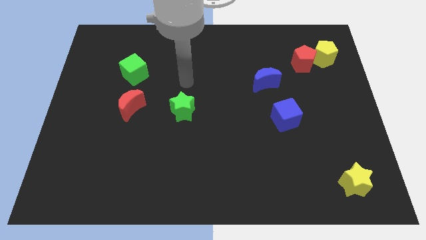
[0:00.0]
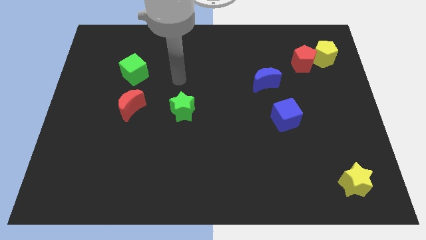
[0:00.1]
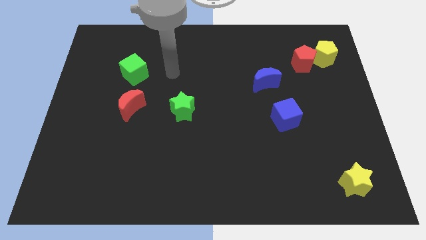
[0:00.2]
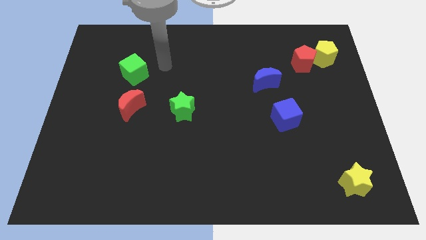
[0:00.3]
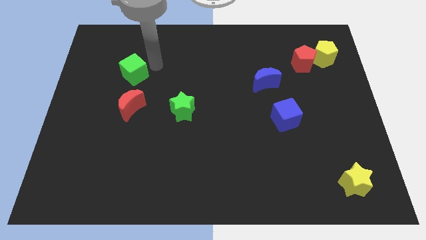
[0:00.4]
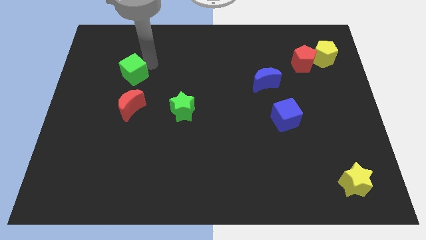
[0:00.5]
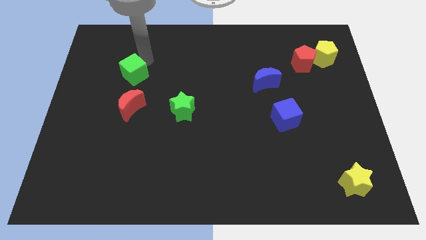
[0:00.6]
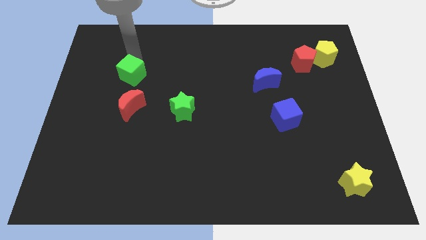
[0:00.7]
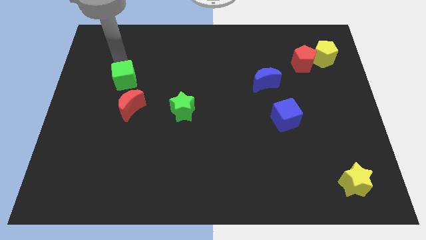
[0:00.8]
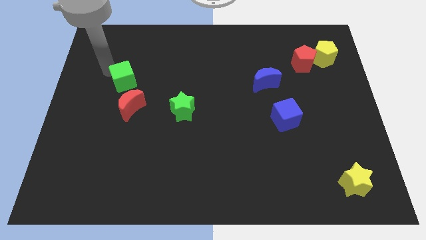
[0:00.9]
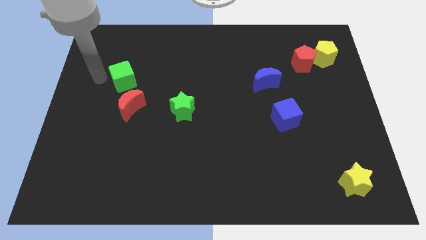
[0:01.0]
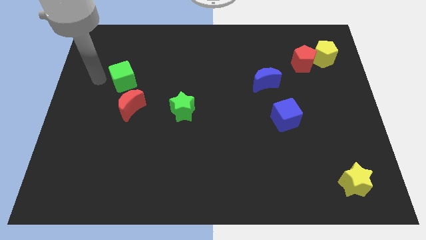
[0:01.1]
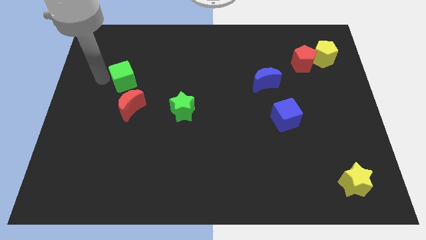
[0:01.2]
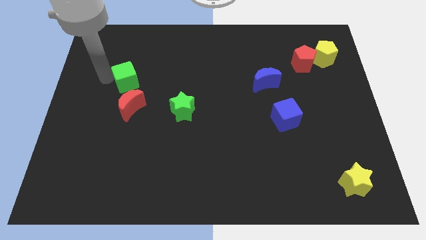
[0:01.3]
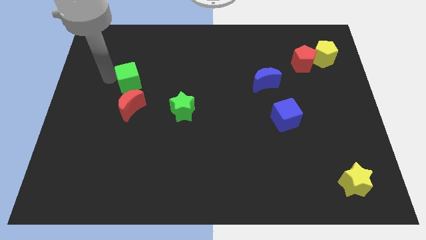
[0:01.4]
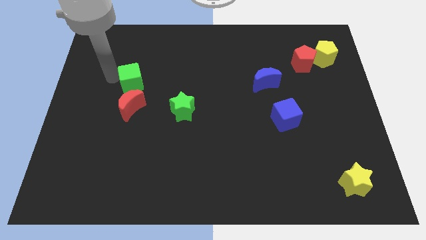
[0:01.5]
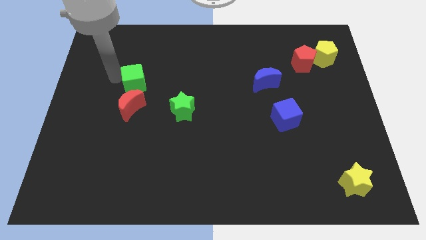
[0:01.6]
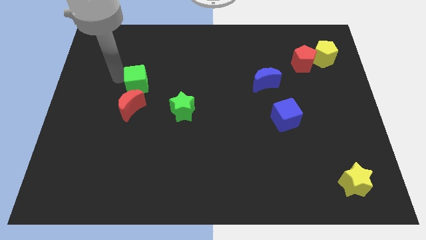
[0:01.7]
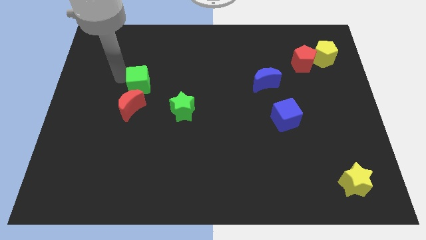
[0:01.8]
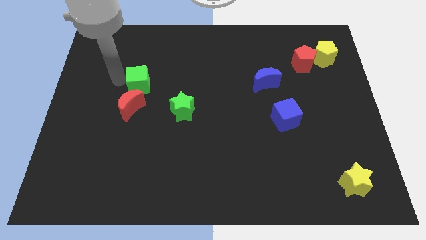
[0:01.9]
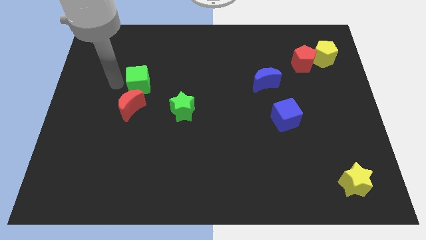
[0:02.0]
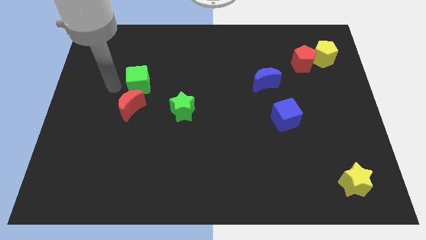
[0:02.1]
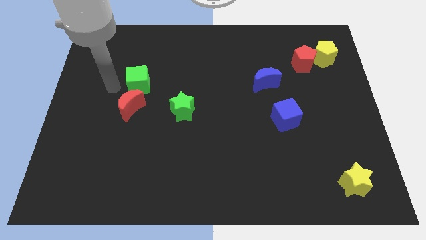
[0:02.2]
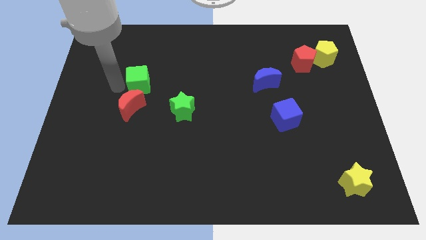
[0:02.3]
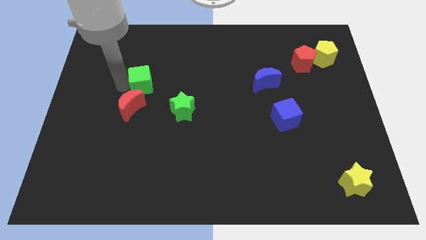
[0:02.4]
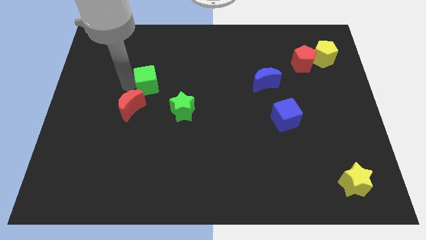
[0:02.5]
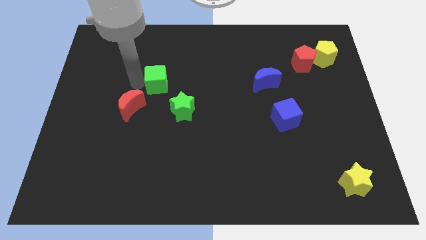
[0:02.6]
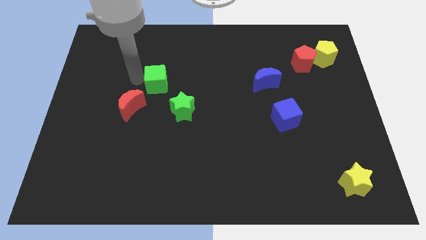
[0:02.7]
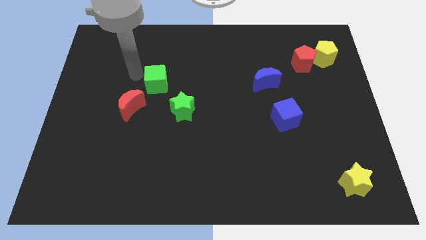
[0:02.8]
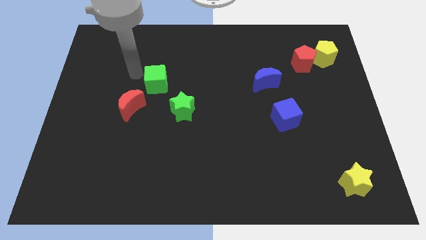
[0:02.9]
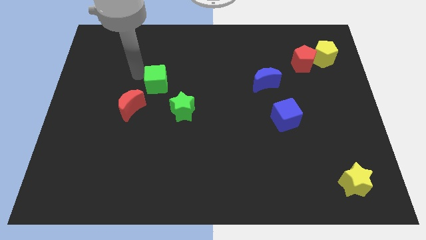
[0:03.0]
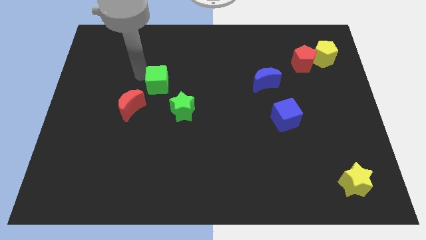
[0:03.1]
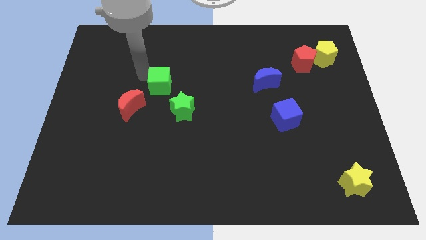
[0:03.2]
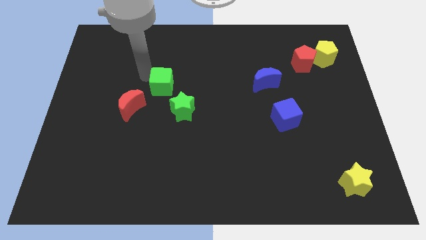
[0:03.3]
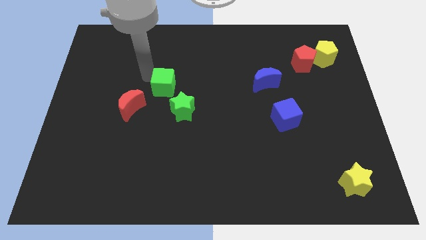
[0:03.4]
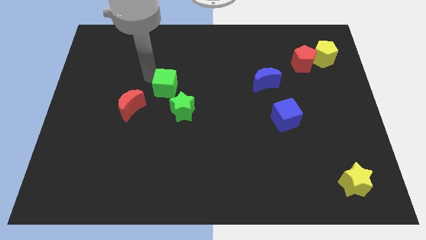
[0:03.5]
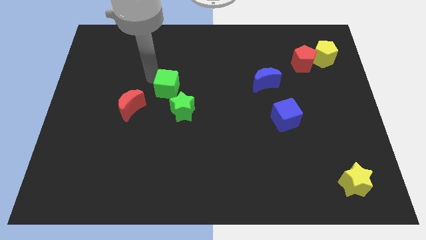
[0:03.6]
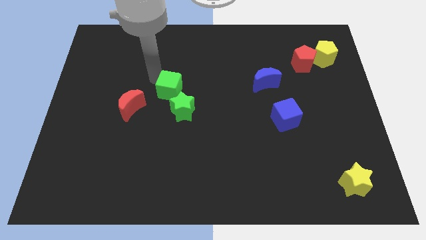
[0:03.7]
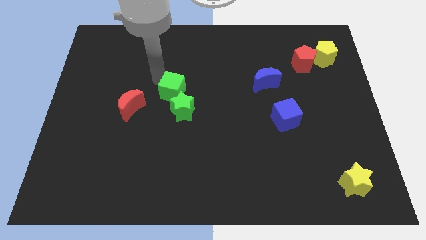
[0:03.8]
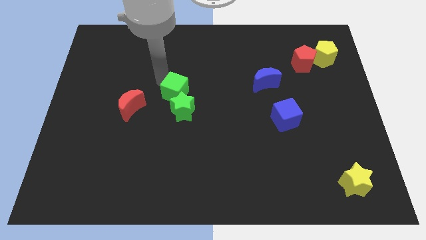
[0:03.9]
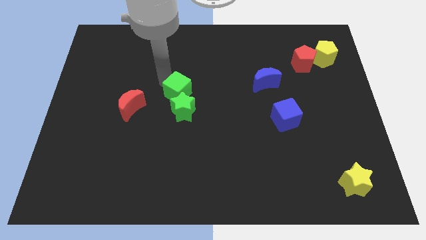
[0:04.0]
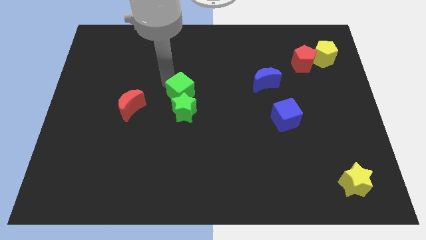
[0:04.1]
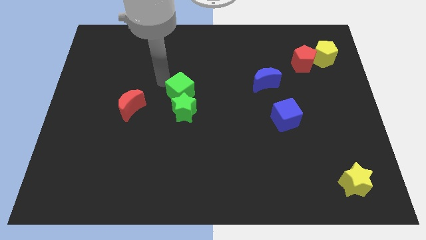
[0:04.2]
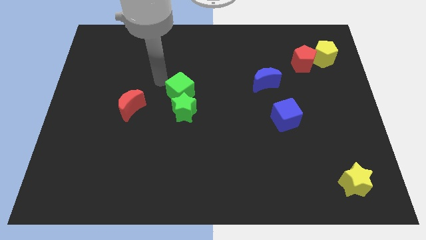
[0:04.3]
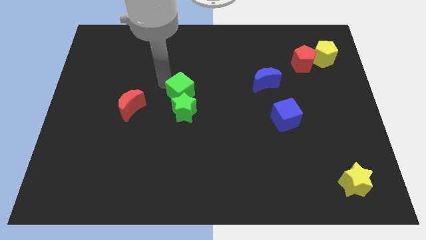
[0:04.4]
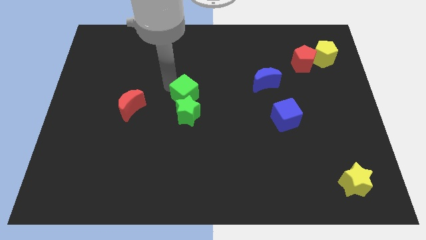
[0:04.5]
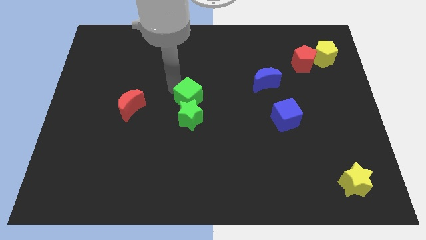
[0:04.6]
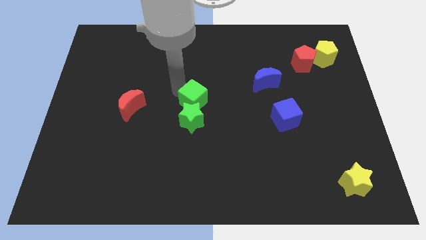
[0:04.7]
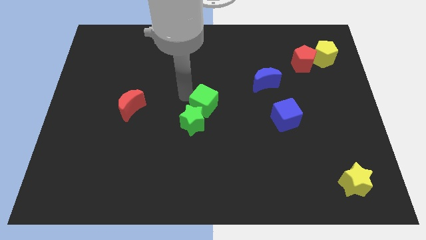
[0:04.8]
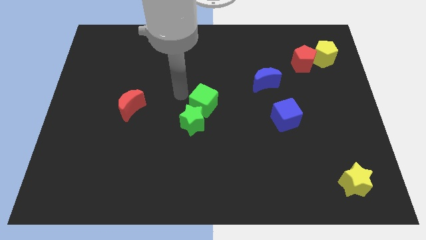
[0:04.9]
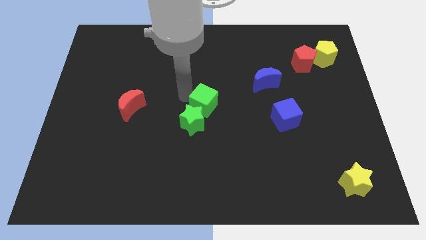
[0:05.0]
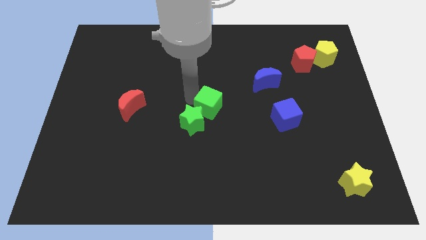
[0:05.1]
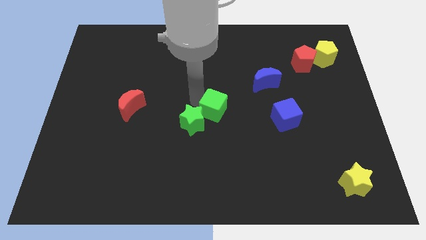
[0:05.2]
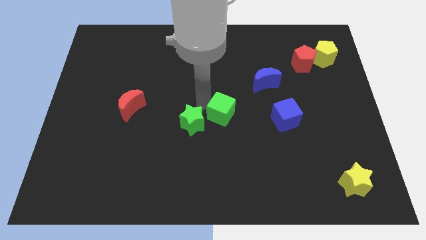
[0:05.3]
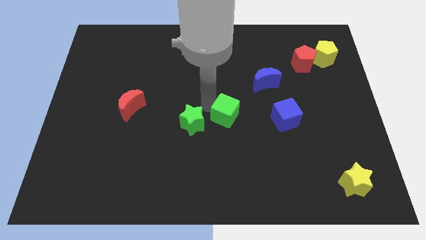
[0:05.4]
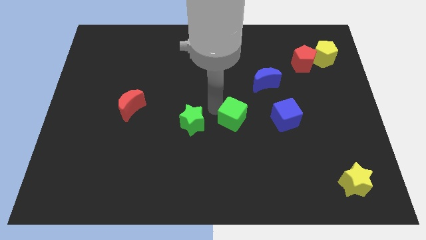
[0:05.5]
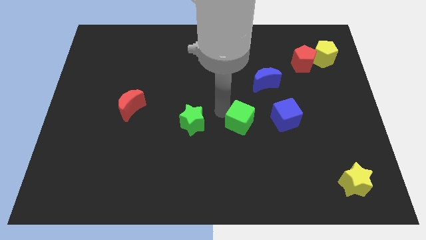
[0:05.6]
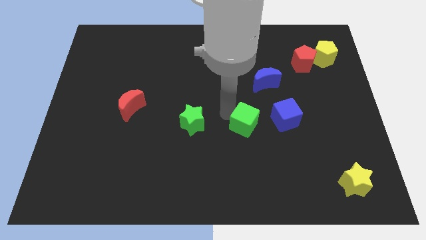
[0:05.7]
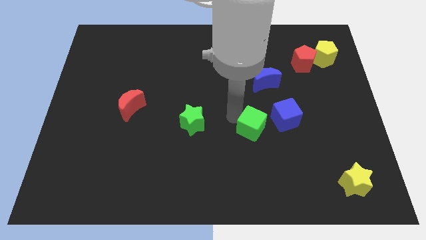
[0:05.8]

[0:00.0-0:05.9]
slide the green cube diagonally down and to the left of the blue cube

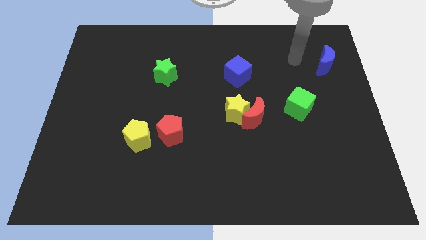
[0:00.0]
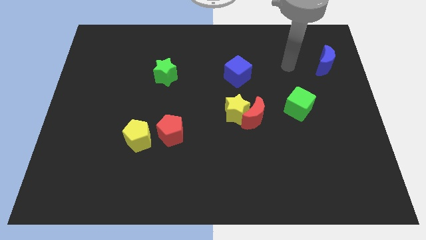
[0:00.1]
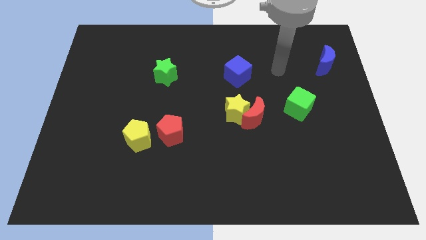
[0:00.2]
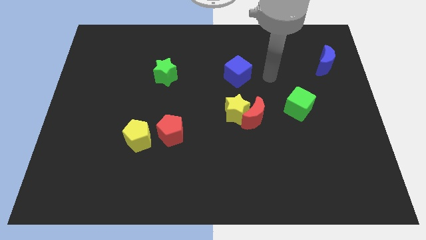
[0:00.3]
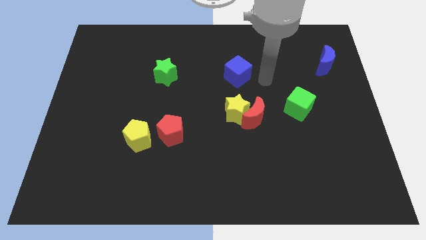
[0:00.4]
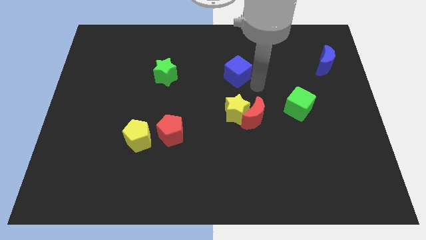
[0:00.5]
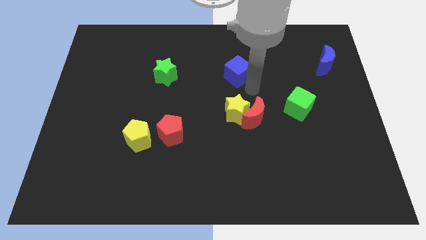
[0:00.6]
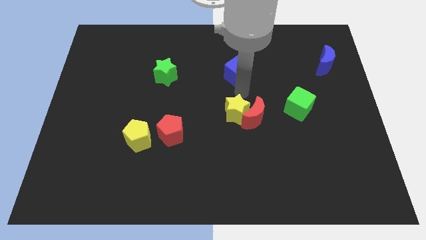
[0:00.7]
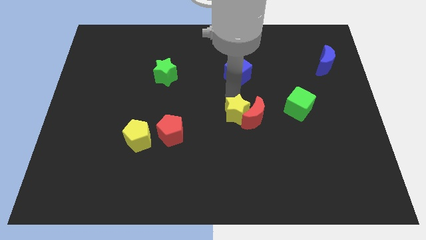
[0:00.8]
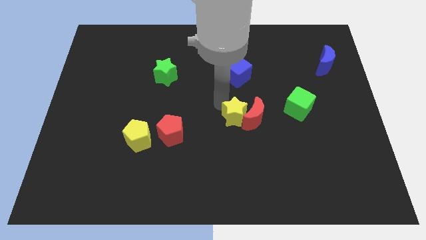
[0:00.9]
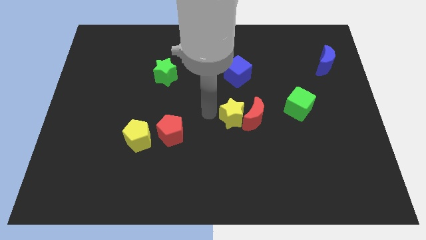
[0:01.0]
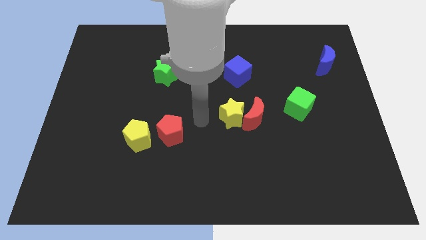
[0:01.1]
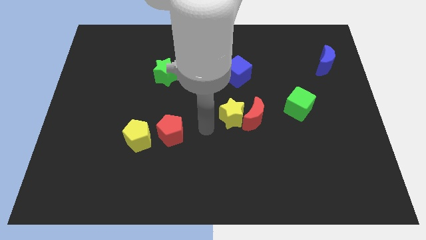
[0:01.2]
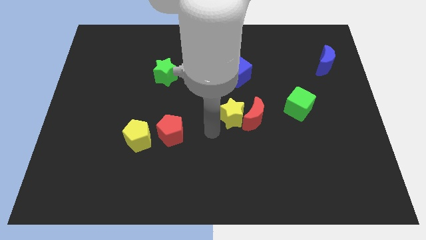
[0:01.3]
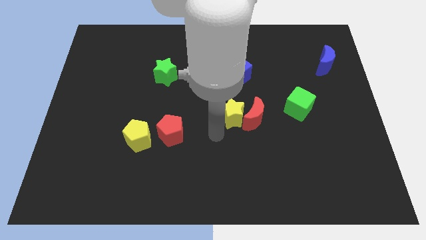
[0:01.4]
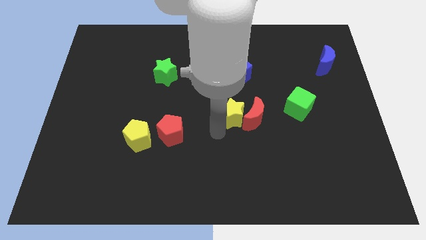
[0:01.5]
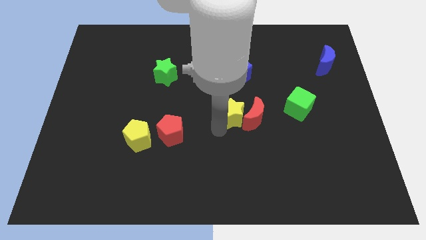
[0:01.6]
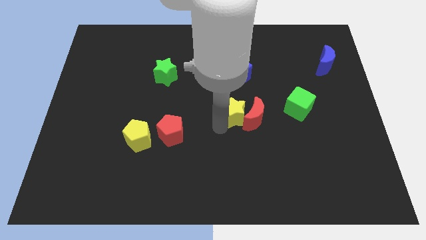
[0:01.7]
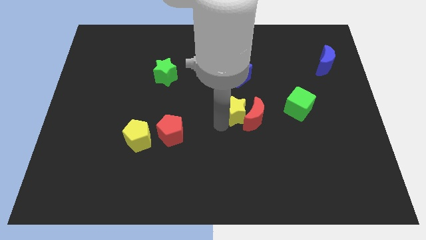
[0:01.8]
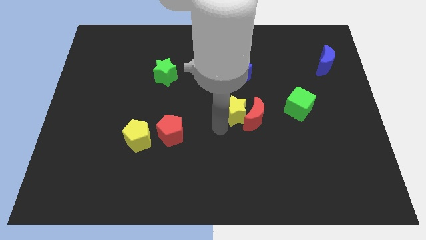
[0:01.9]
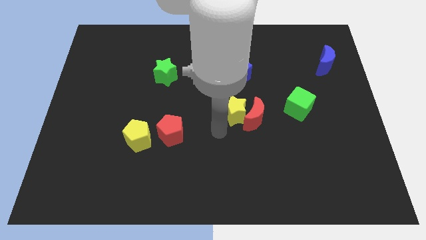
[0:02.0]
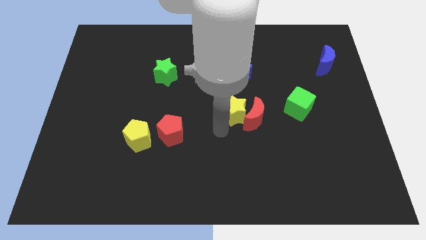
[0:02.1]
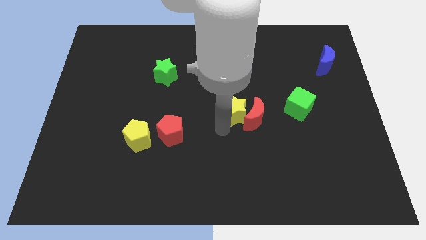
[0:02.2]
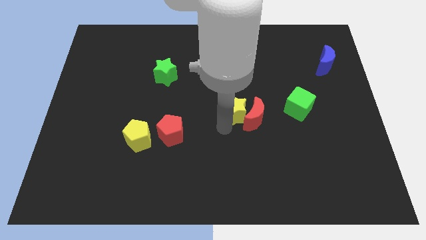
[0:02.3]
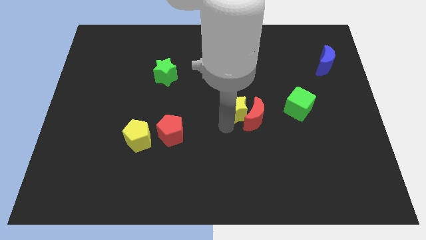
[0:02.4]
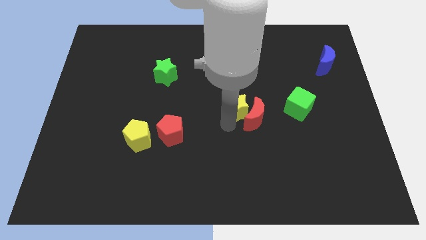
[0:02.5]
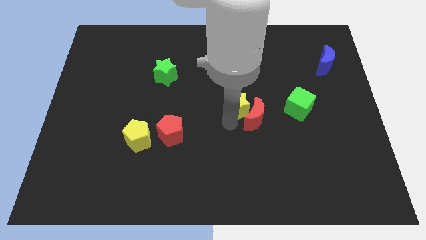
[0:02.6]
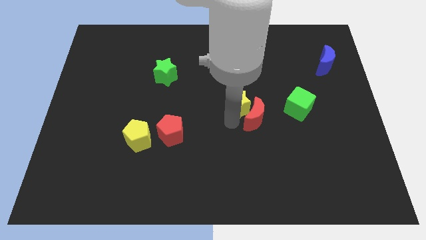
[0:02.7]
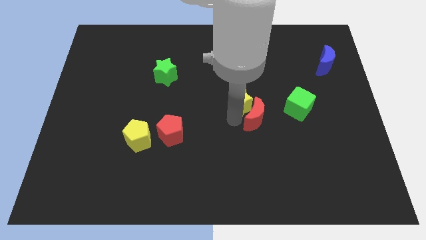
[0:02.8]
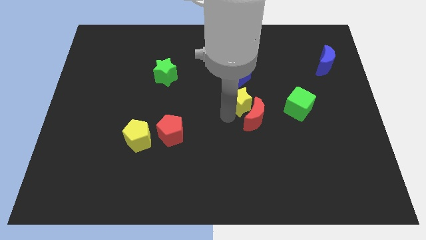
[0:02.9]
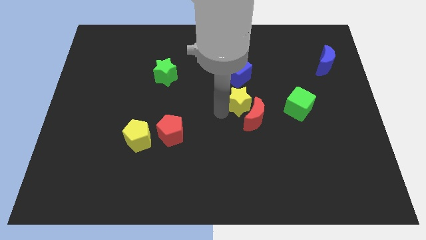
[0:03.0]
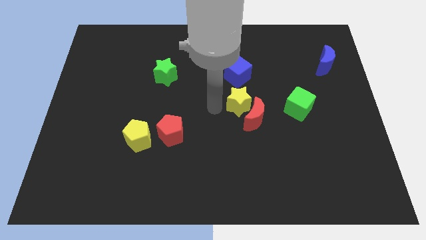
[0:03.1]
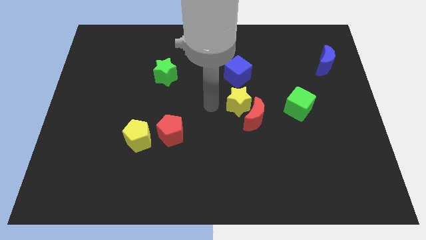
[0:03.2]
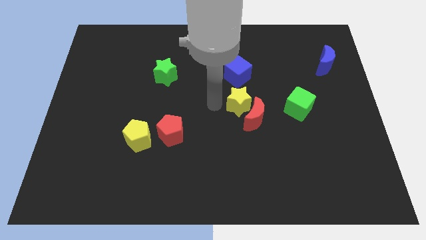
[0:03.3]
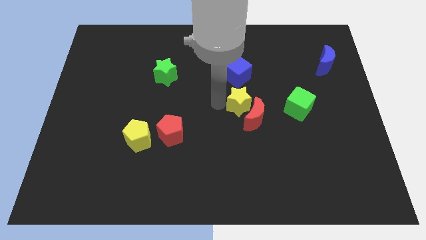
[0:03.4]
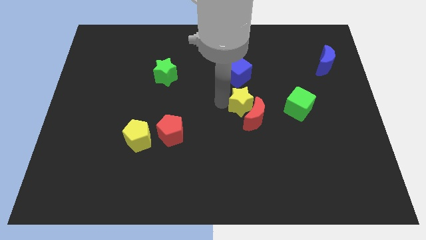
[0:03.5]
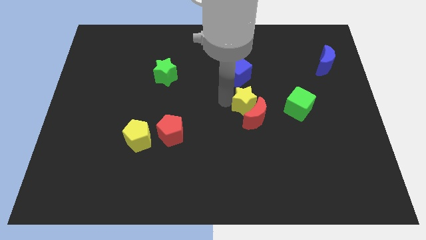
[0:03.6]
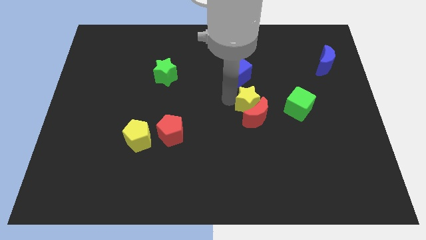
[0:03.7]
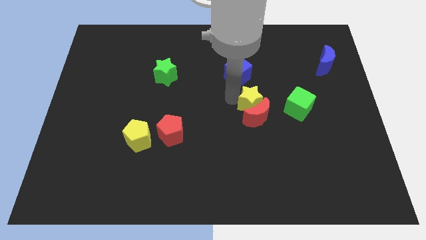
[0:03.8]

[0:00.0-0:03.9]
push the yellow star to the top right of the red moon
